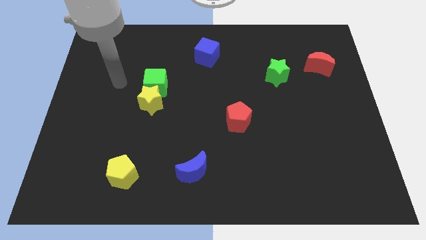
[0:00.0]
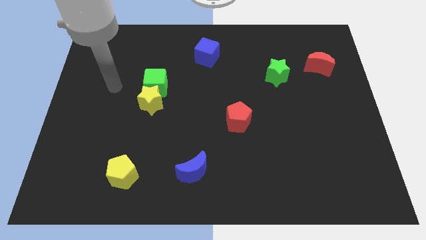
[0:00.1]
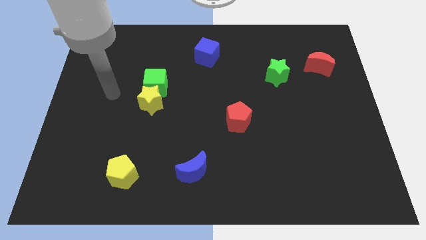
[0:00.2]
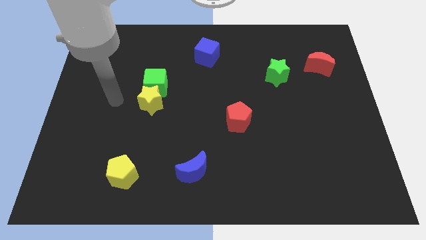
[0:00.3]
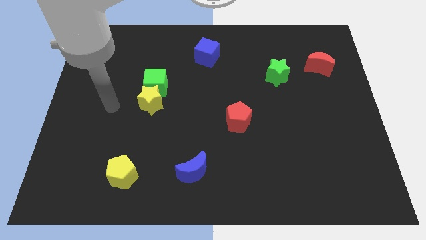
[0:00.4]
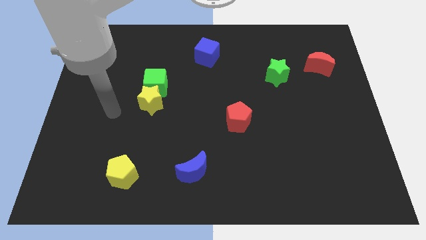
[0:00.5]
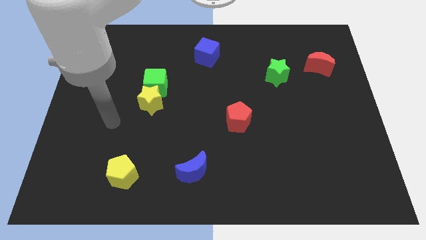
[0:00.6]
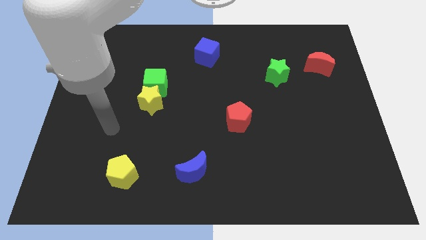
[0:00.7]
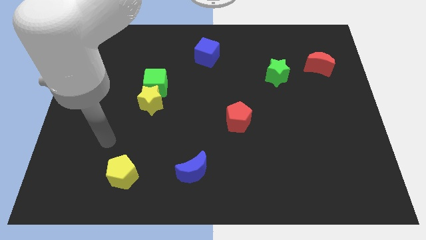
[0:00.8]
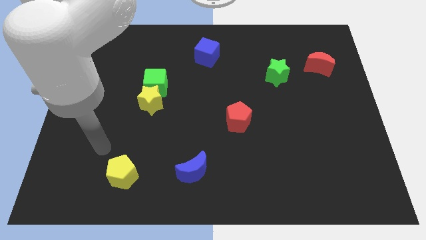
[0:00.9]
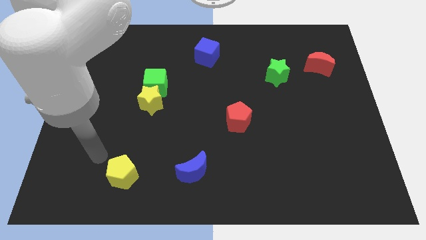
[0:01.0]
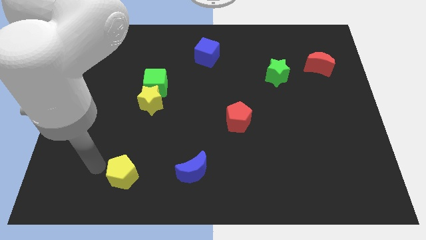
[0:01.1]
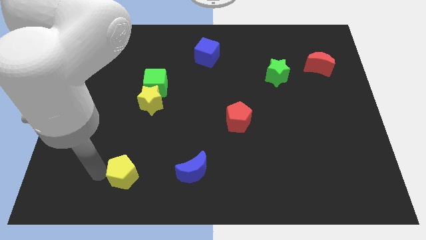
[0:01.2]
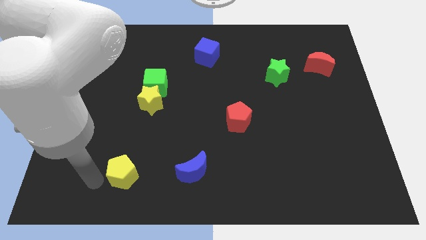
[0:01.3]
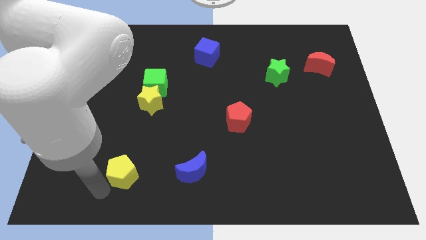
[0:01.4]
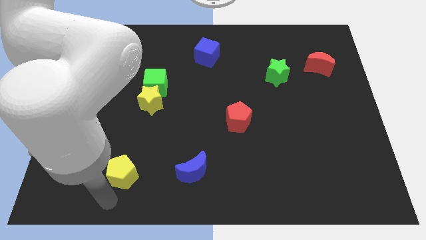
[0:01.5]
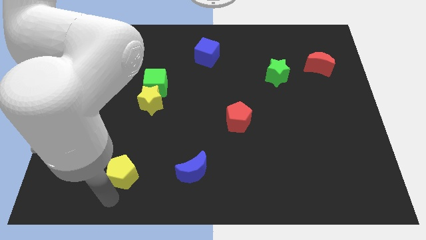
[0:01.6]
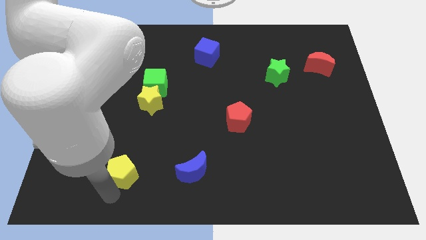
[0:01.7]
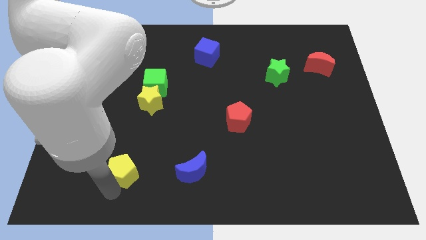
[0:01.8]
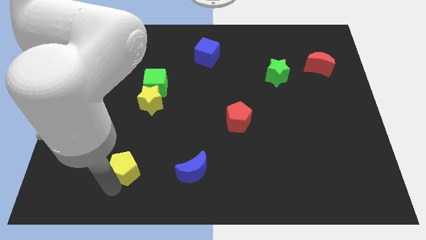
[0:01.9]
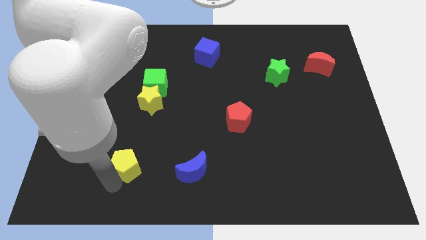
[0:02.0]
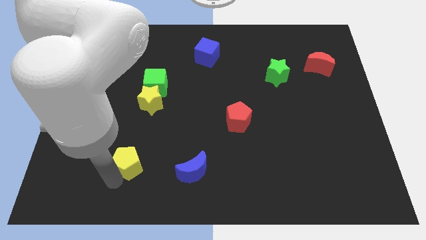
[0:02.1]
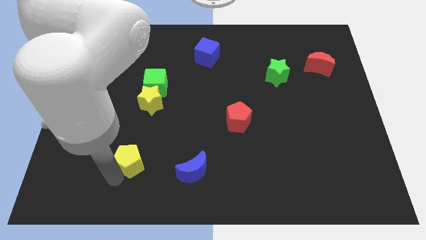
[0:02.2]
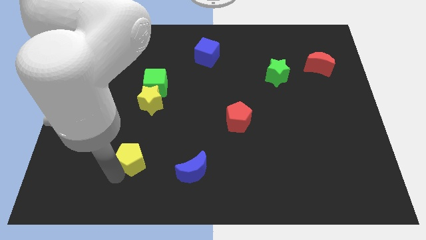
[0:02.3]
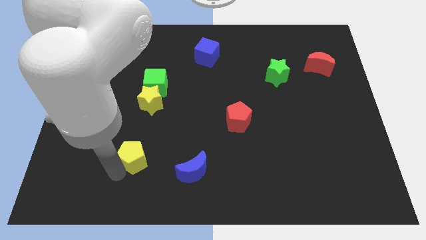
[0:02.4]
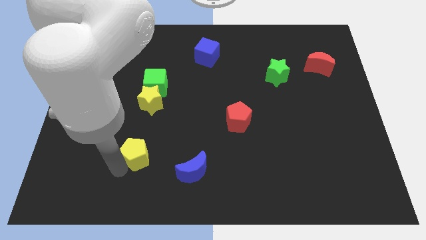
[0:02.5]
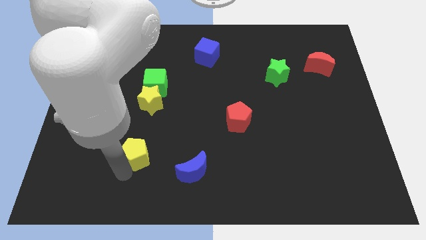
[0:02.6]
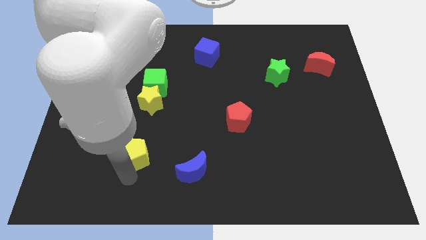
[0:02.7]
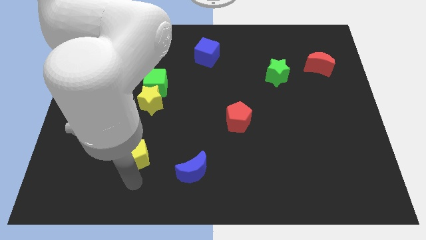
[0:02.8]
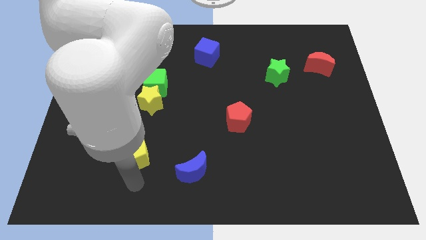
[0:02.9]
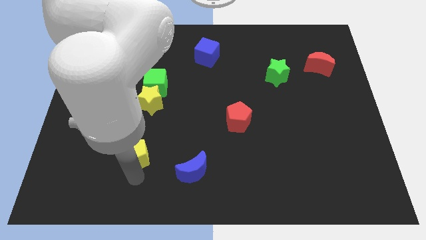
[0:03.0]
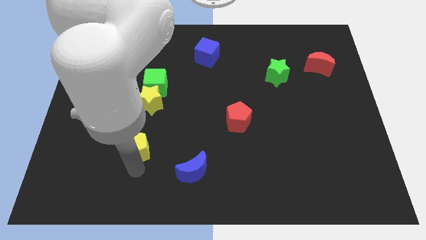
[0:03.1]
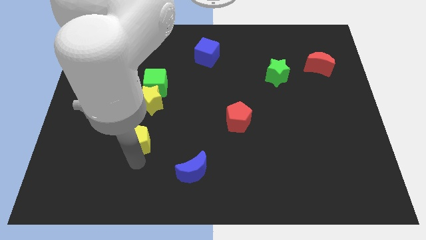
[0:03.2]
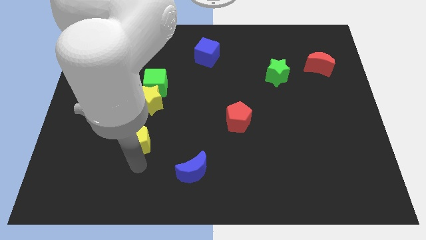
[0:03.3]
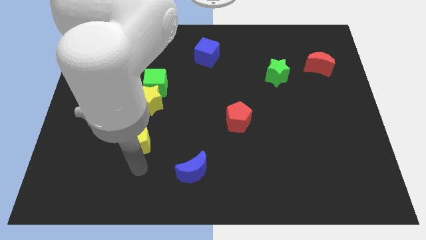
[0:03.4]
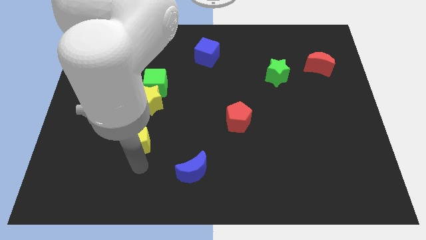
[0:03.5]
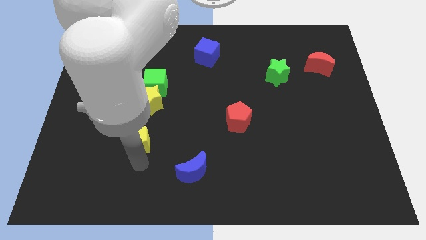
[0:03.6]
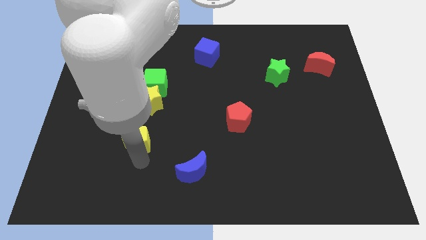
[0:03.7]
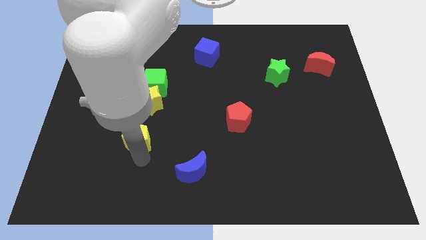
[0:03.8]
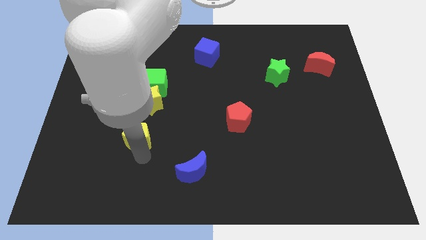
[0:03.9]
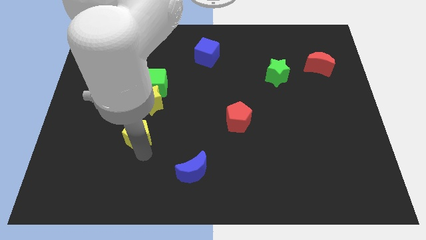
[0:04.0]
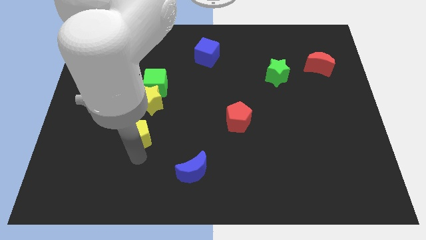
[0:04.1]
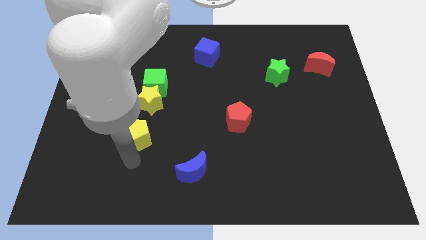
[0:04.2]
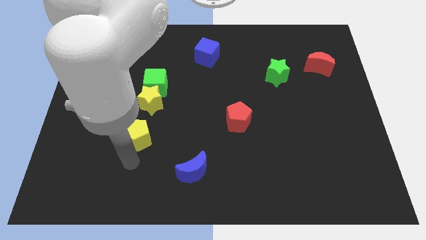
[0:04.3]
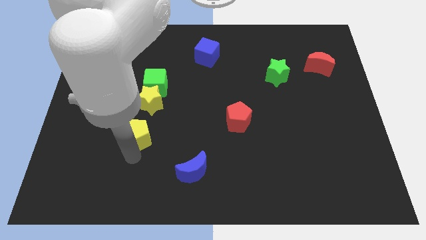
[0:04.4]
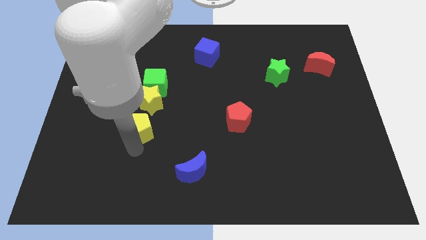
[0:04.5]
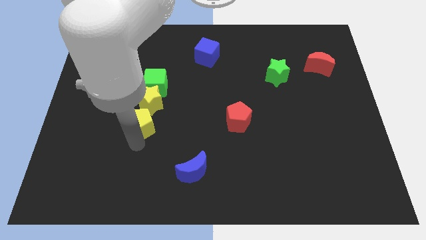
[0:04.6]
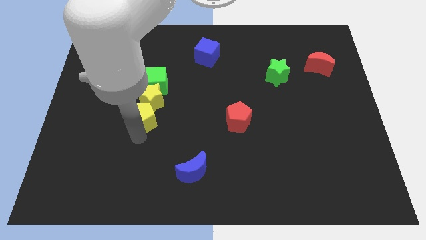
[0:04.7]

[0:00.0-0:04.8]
move the yellow pentagon next to the yellow star

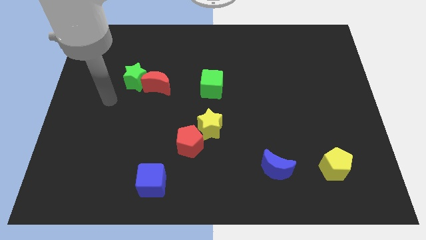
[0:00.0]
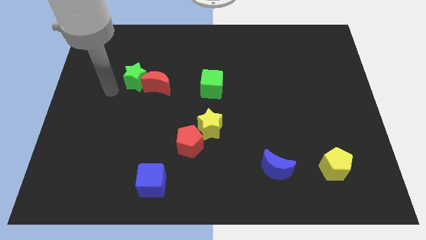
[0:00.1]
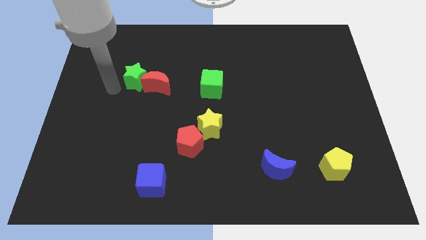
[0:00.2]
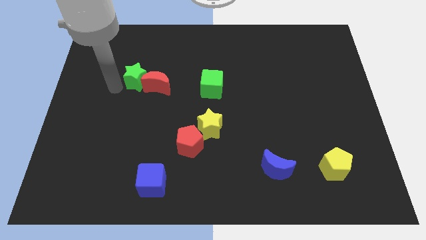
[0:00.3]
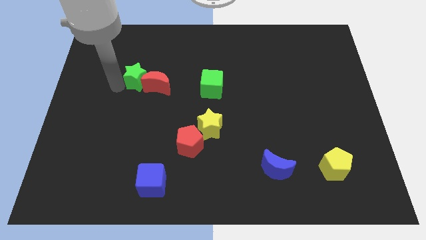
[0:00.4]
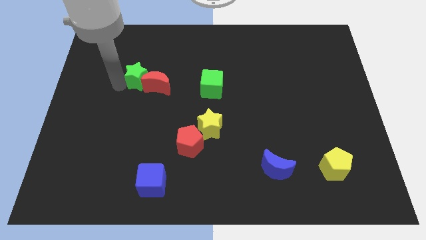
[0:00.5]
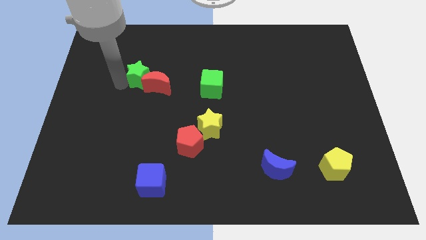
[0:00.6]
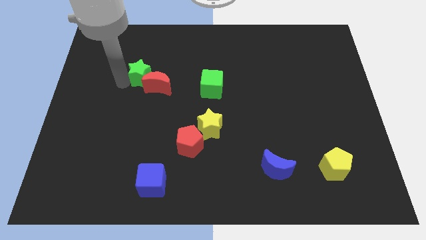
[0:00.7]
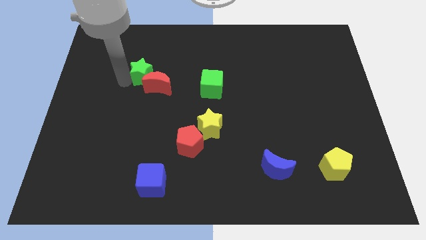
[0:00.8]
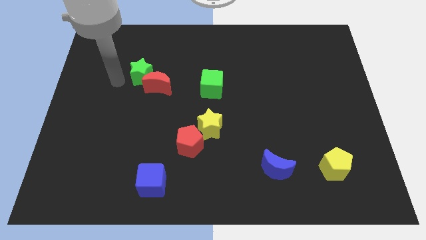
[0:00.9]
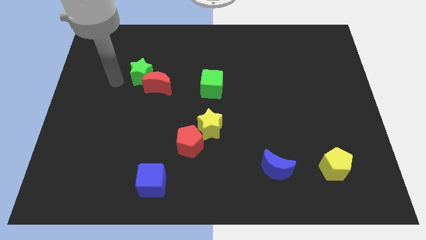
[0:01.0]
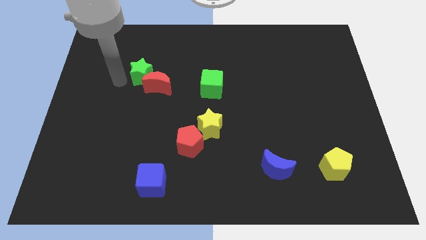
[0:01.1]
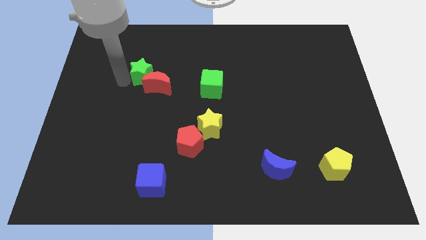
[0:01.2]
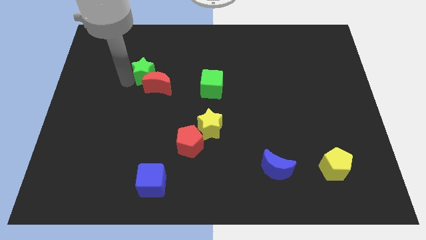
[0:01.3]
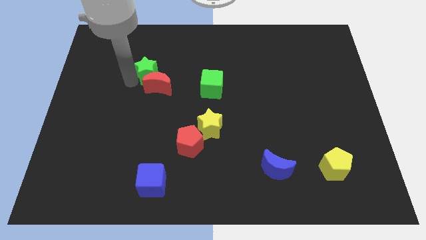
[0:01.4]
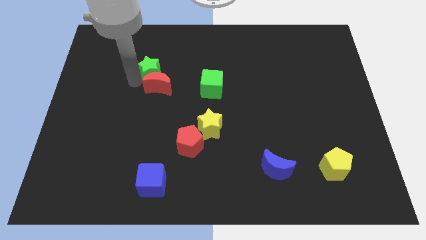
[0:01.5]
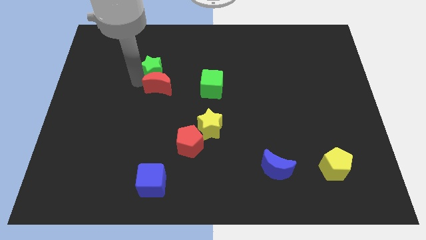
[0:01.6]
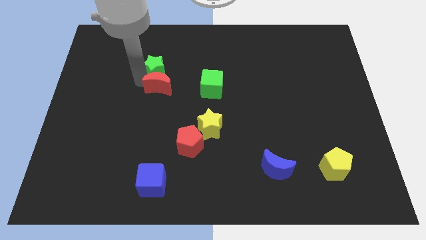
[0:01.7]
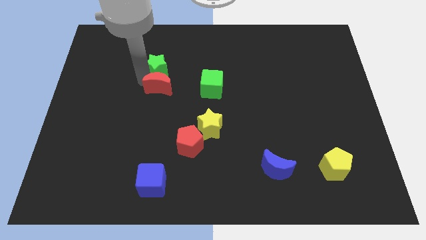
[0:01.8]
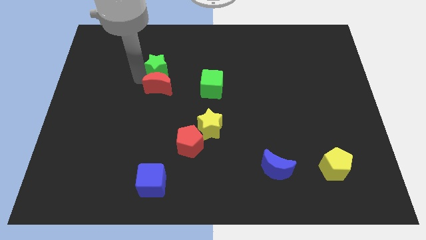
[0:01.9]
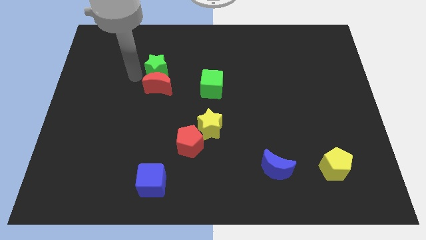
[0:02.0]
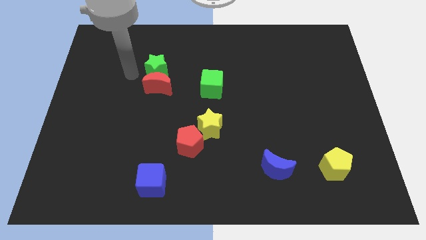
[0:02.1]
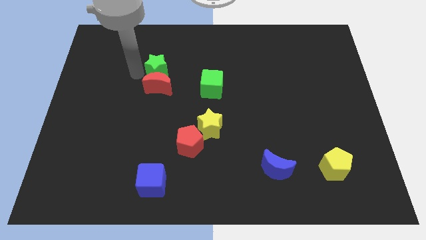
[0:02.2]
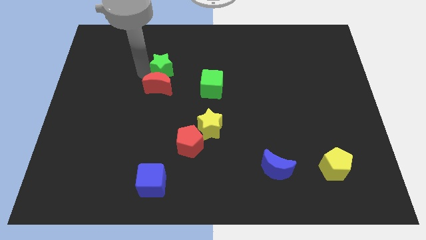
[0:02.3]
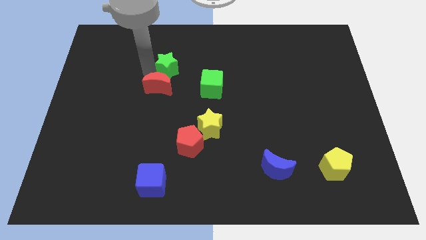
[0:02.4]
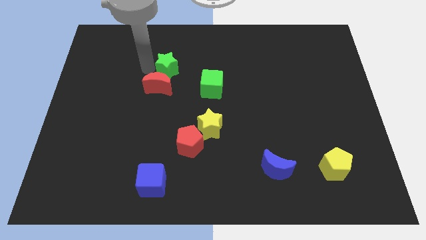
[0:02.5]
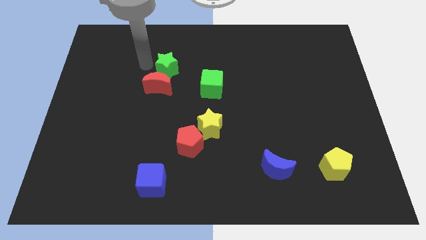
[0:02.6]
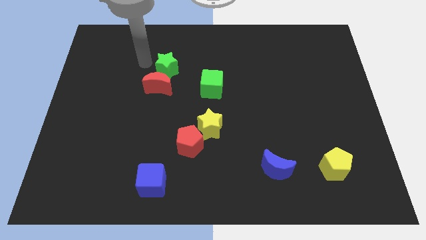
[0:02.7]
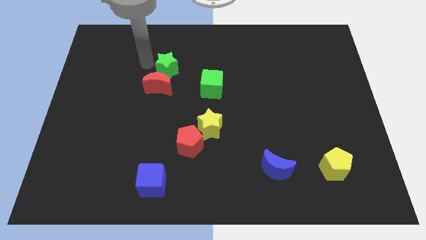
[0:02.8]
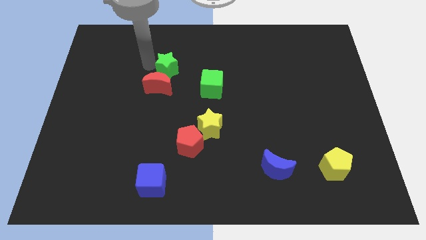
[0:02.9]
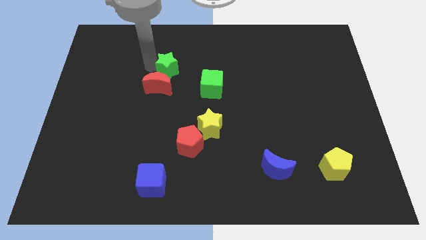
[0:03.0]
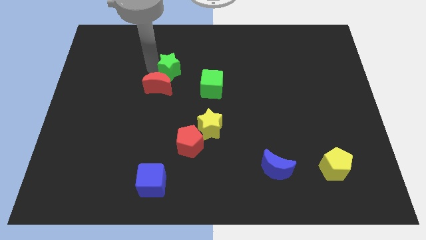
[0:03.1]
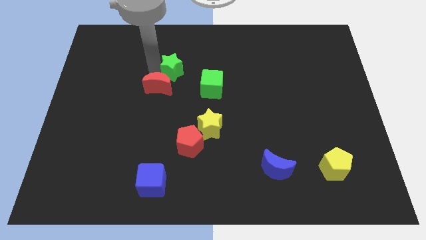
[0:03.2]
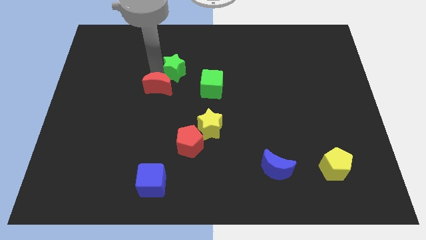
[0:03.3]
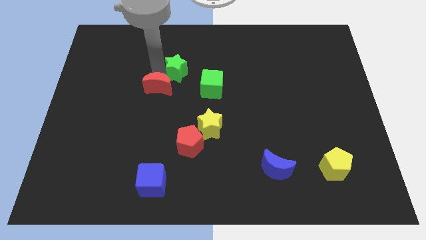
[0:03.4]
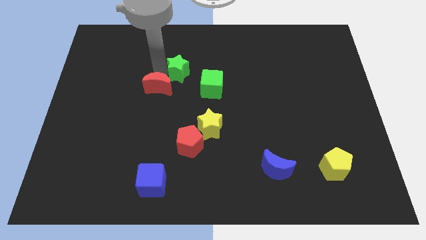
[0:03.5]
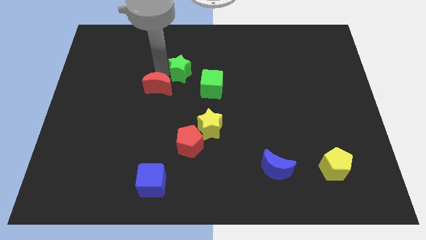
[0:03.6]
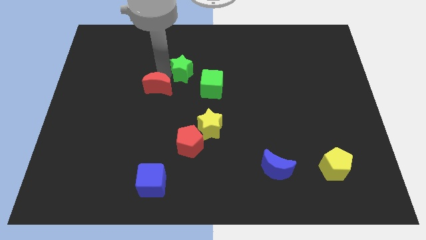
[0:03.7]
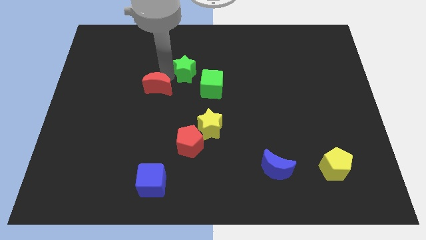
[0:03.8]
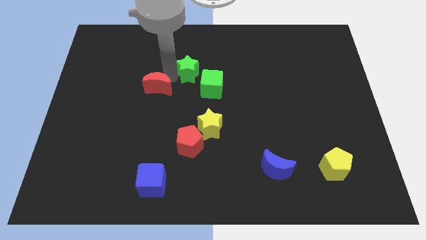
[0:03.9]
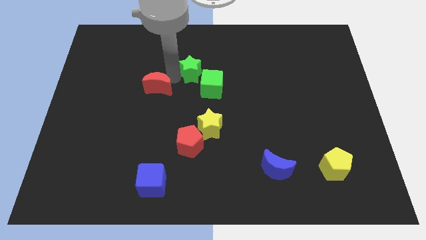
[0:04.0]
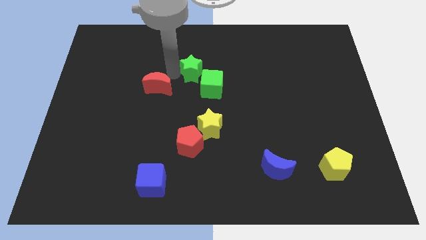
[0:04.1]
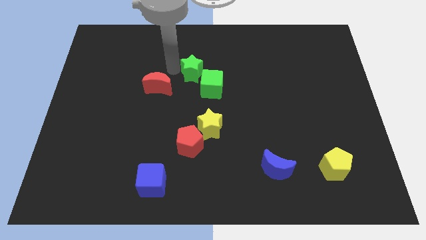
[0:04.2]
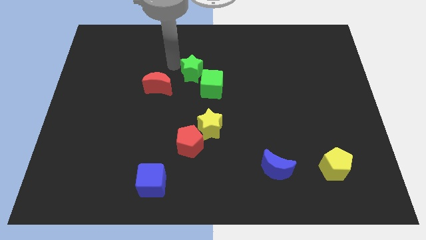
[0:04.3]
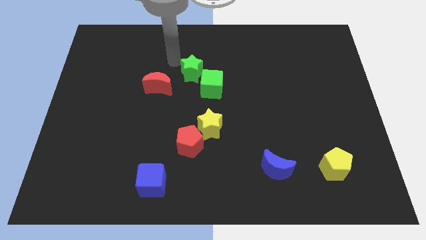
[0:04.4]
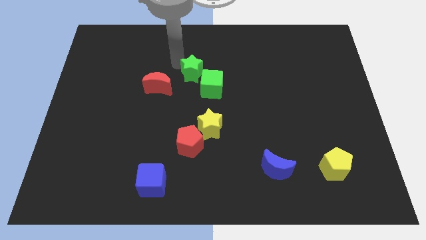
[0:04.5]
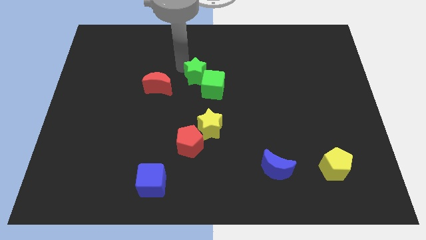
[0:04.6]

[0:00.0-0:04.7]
slide the green star towards the green cube
